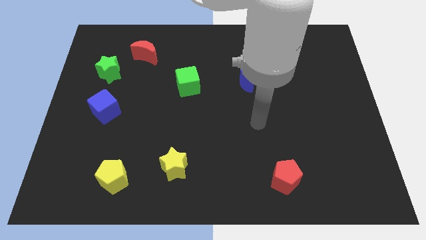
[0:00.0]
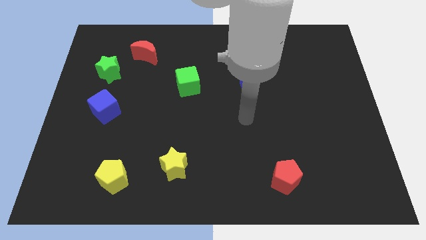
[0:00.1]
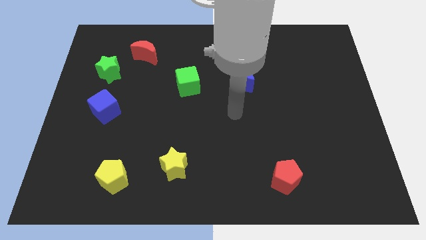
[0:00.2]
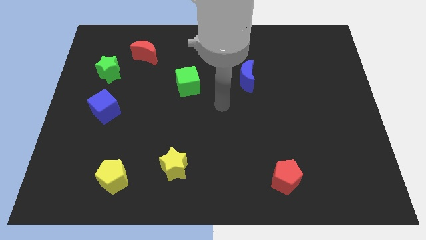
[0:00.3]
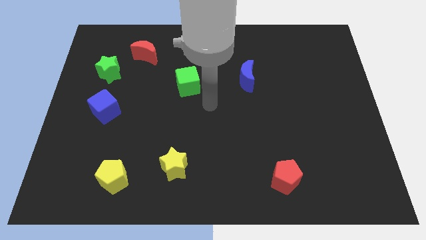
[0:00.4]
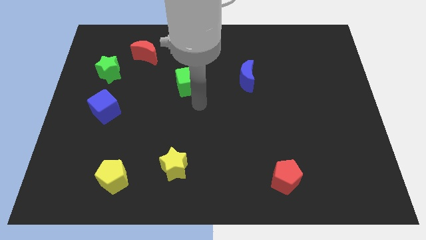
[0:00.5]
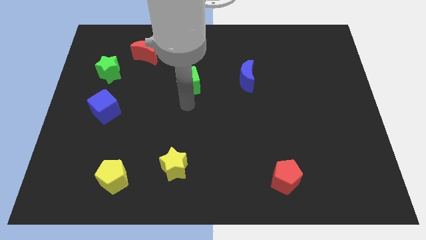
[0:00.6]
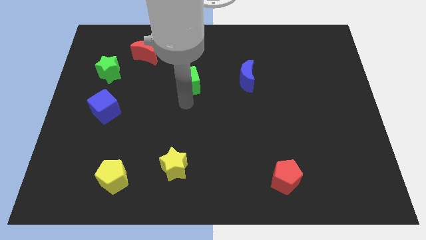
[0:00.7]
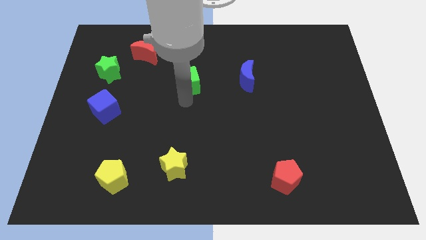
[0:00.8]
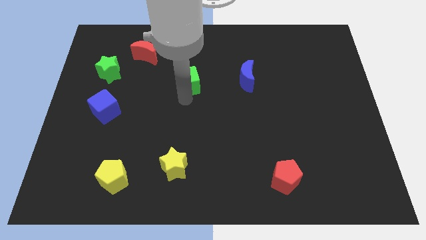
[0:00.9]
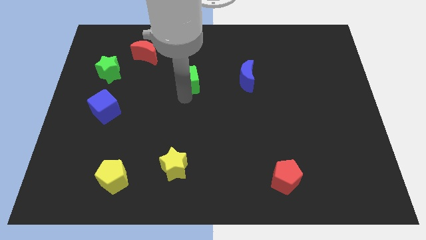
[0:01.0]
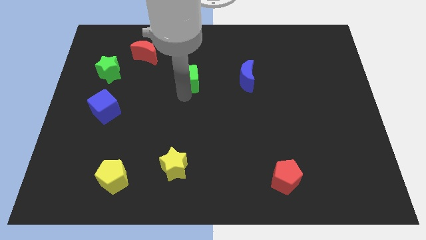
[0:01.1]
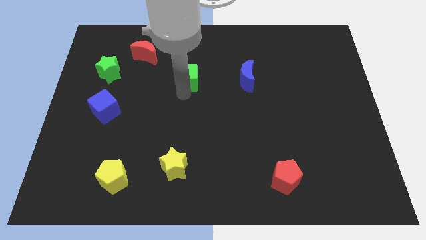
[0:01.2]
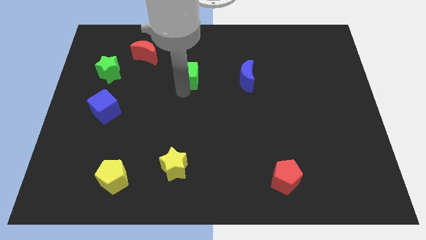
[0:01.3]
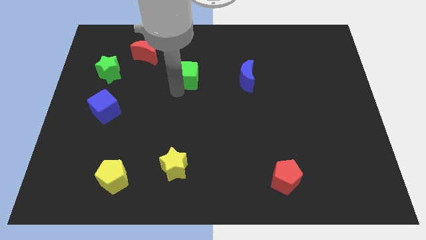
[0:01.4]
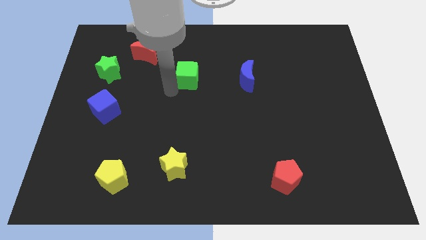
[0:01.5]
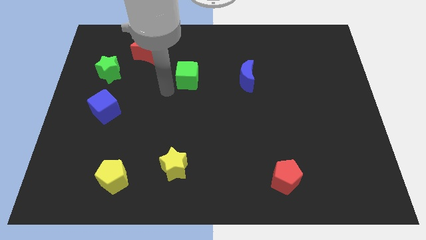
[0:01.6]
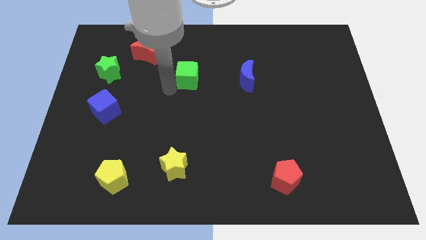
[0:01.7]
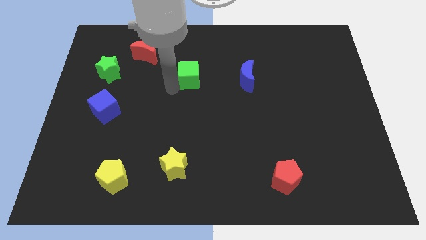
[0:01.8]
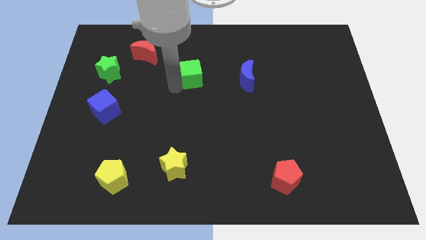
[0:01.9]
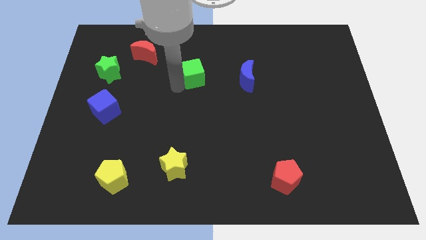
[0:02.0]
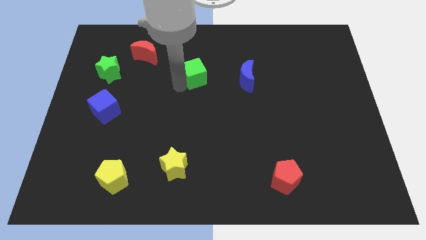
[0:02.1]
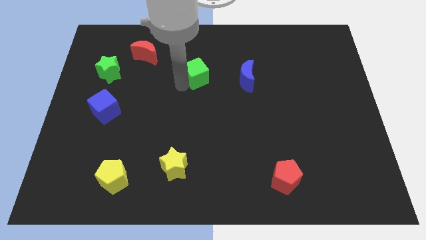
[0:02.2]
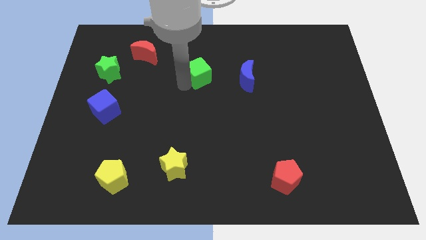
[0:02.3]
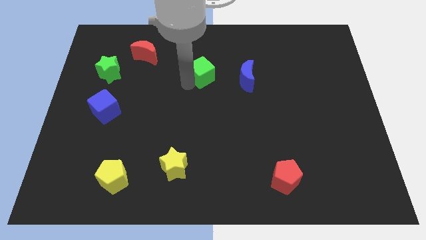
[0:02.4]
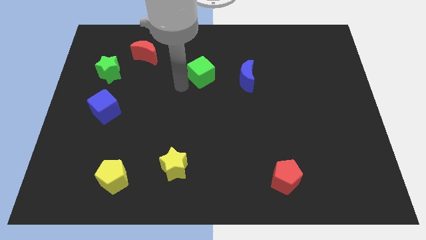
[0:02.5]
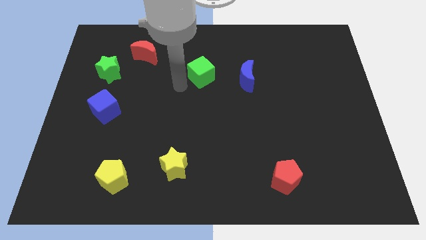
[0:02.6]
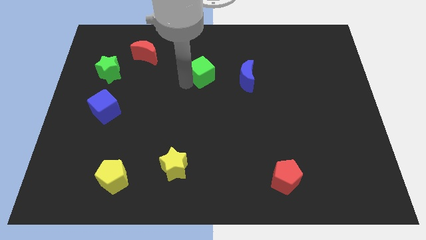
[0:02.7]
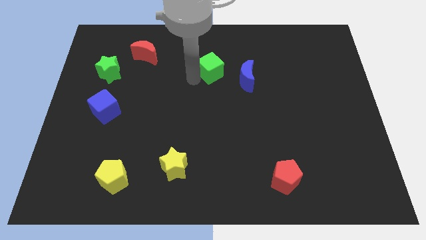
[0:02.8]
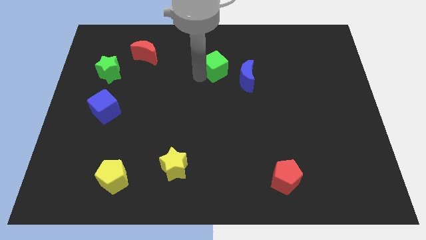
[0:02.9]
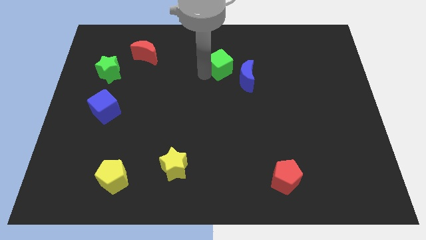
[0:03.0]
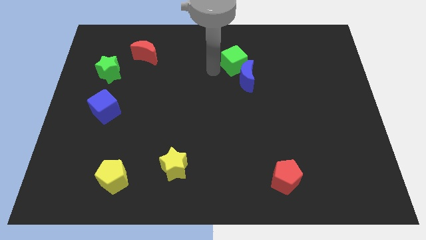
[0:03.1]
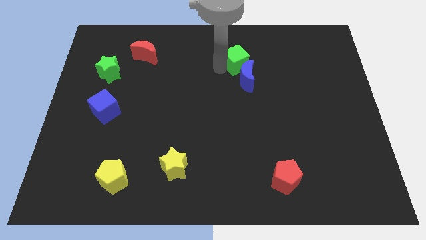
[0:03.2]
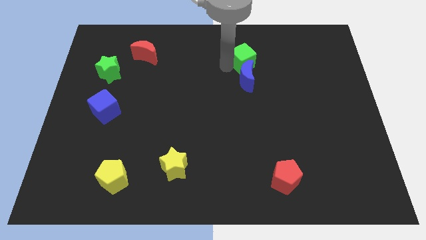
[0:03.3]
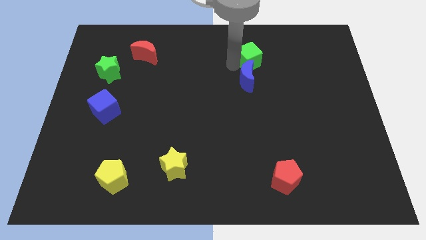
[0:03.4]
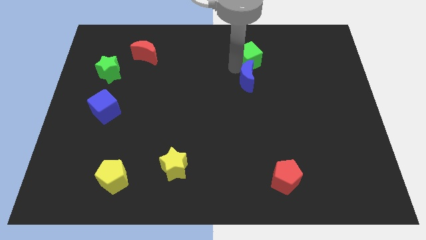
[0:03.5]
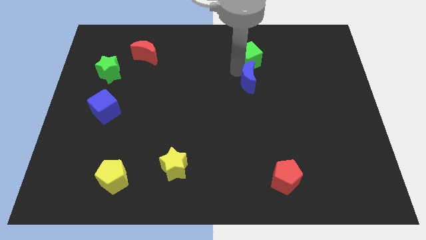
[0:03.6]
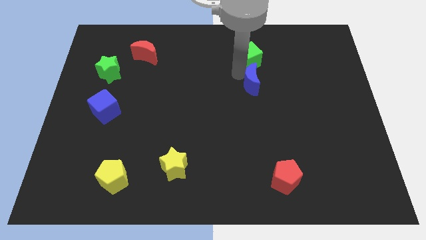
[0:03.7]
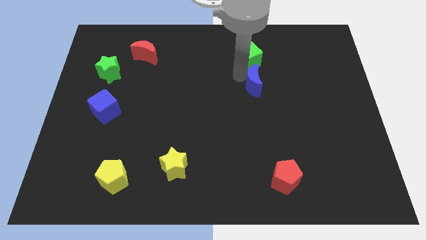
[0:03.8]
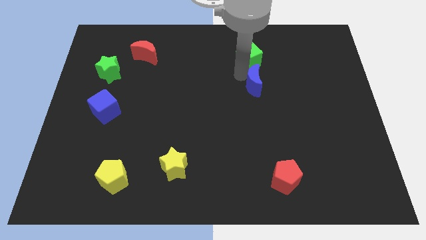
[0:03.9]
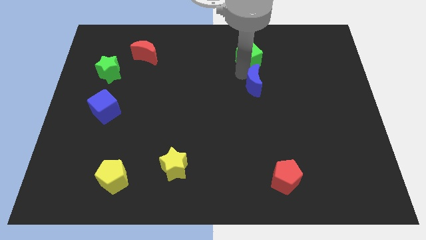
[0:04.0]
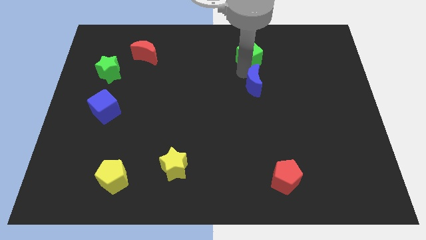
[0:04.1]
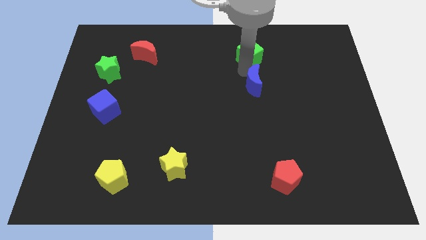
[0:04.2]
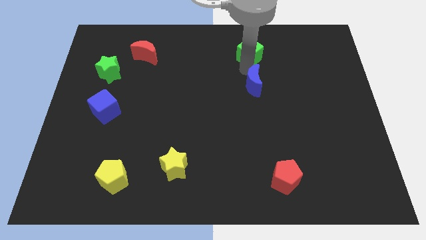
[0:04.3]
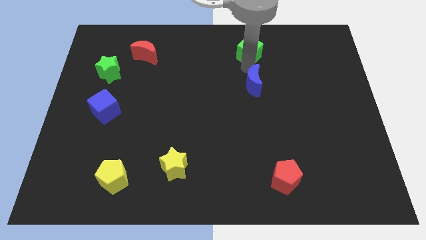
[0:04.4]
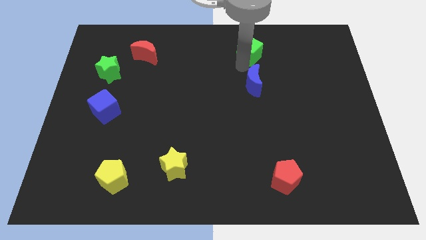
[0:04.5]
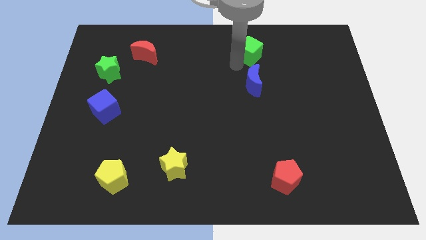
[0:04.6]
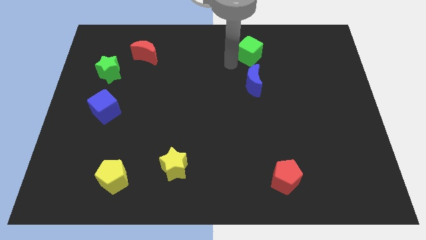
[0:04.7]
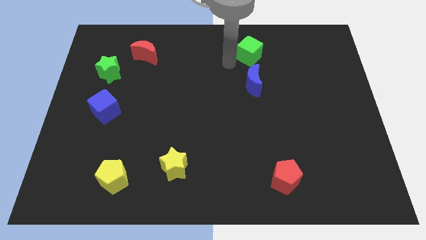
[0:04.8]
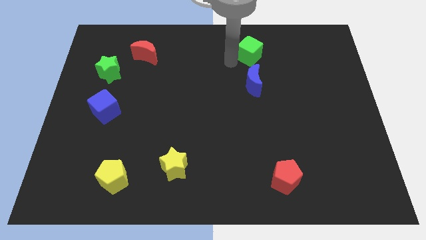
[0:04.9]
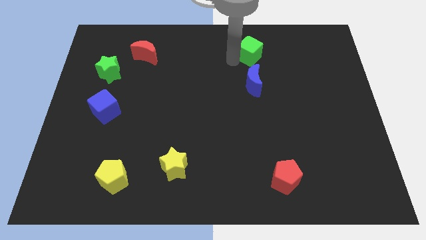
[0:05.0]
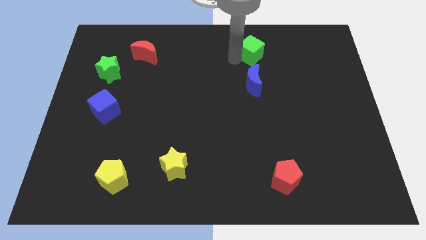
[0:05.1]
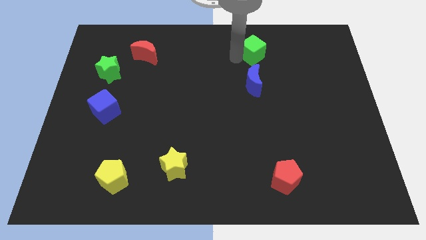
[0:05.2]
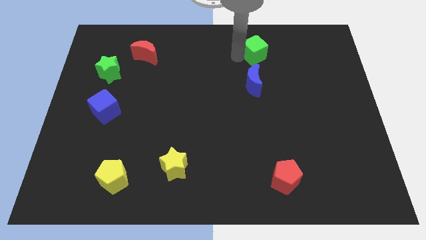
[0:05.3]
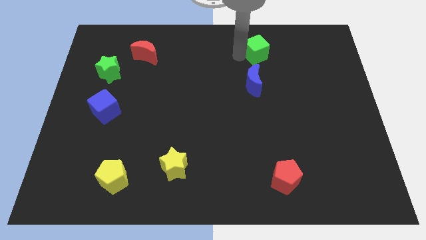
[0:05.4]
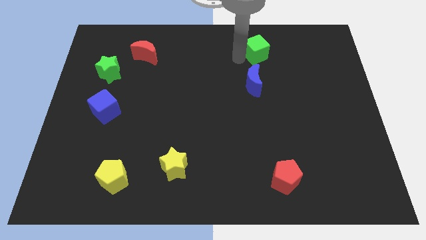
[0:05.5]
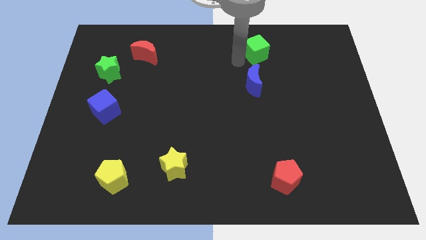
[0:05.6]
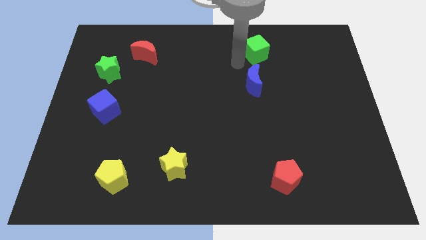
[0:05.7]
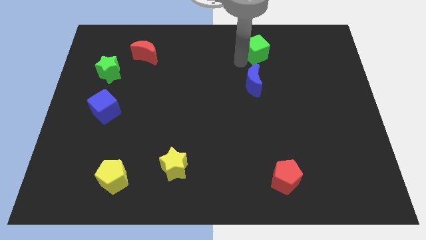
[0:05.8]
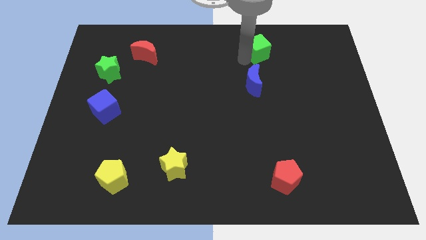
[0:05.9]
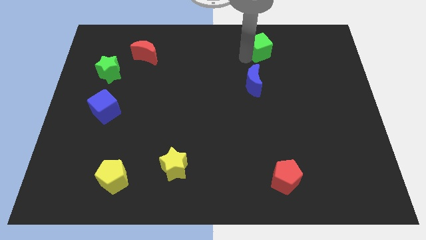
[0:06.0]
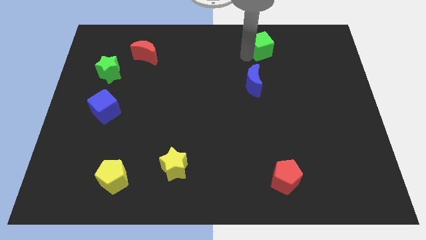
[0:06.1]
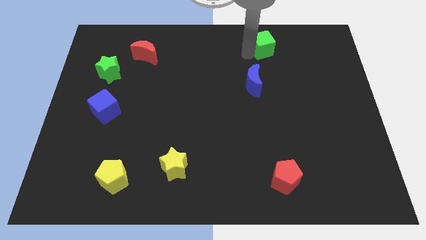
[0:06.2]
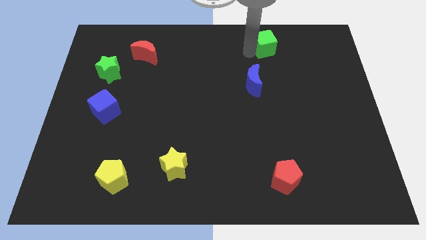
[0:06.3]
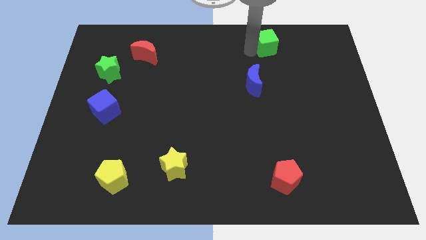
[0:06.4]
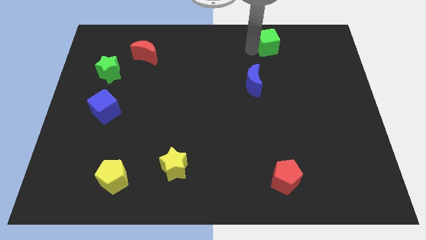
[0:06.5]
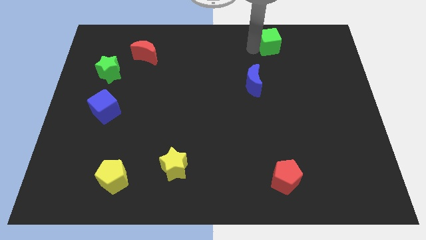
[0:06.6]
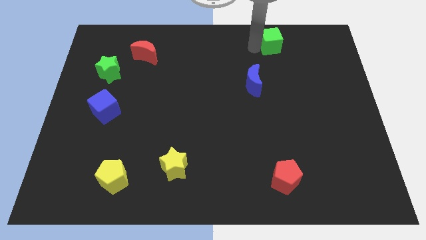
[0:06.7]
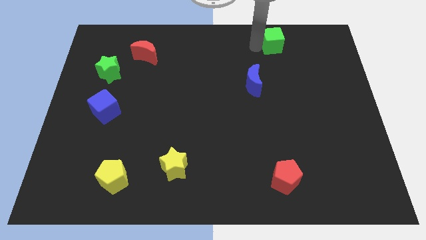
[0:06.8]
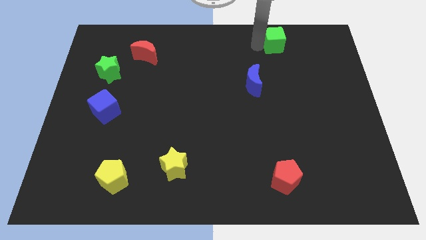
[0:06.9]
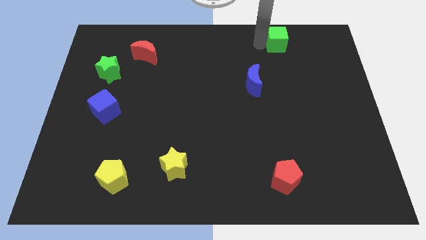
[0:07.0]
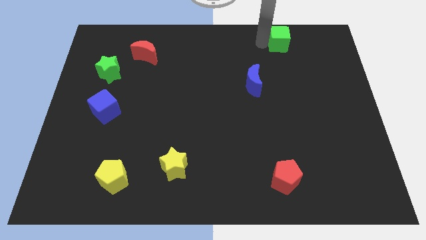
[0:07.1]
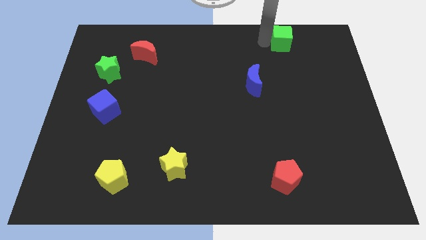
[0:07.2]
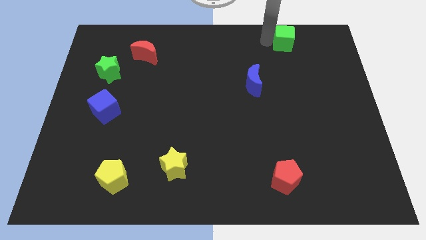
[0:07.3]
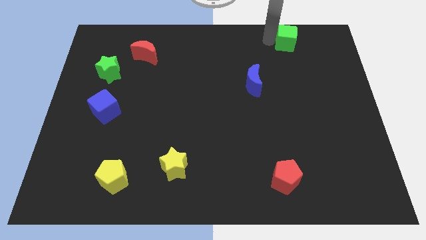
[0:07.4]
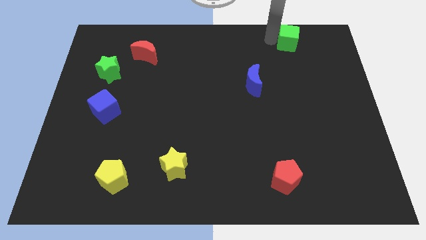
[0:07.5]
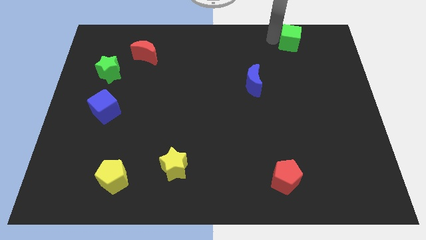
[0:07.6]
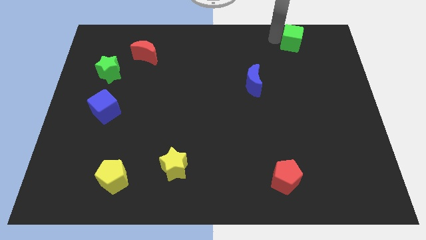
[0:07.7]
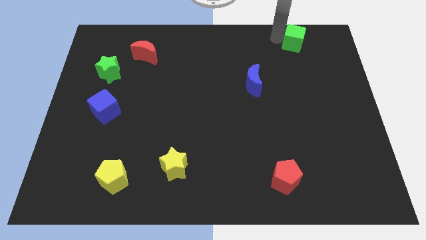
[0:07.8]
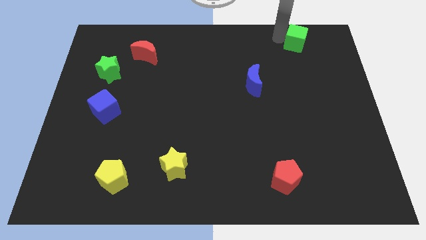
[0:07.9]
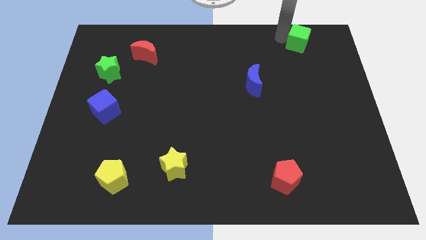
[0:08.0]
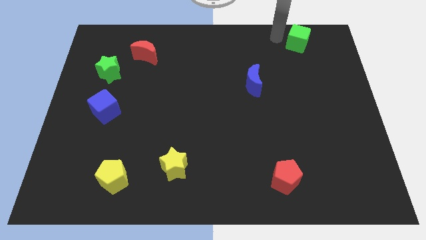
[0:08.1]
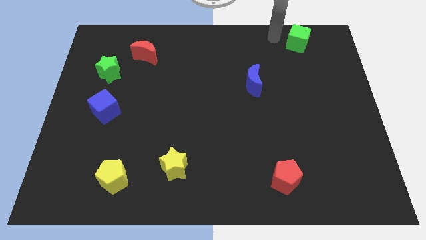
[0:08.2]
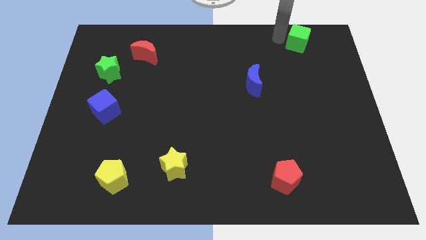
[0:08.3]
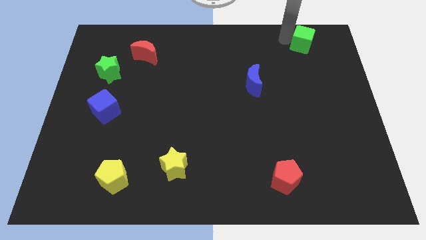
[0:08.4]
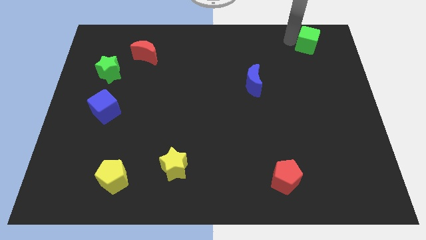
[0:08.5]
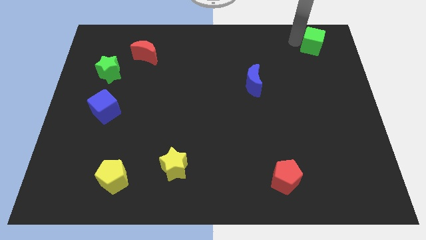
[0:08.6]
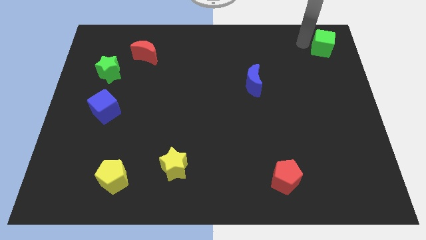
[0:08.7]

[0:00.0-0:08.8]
slide the green cube to the top right
